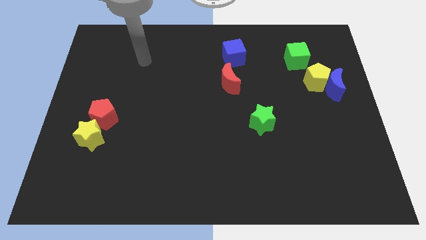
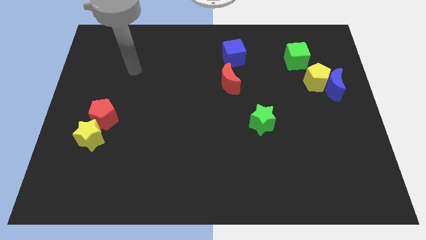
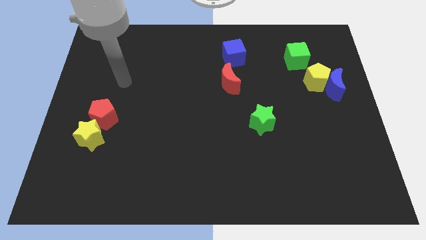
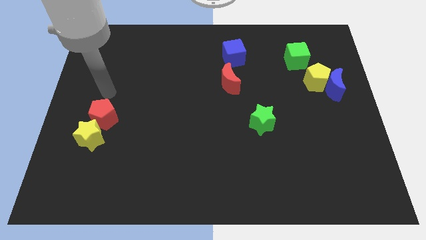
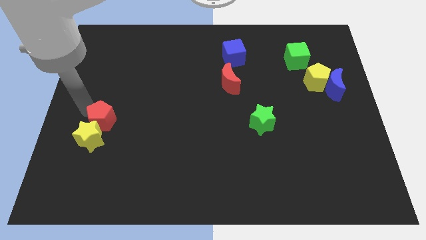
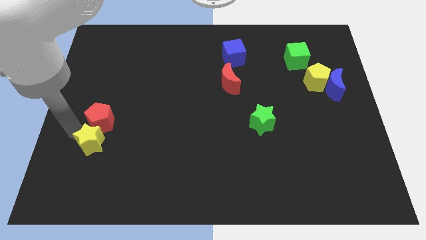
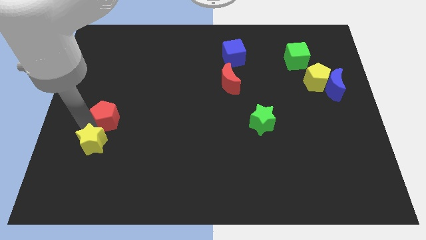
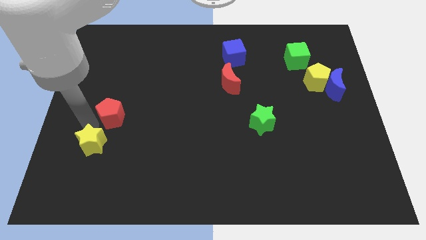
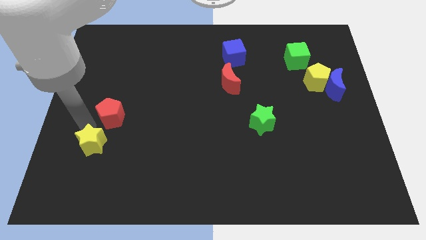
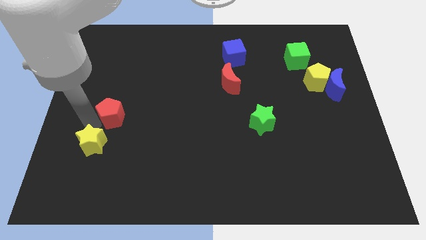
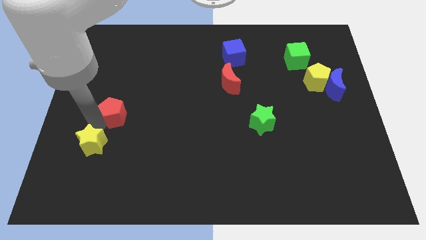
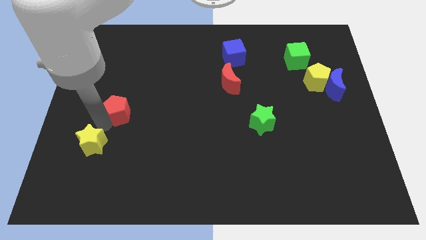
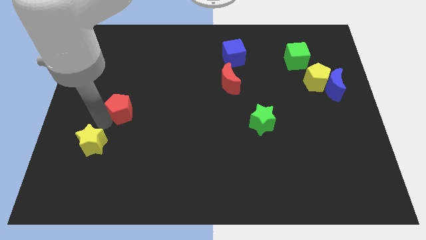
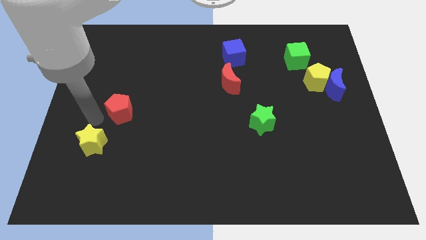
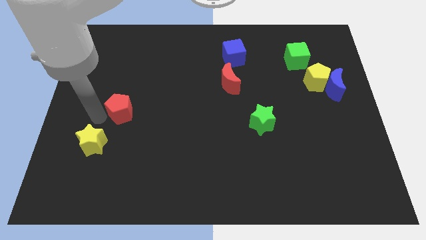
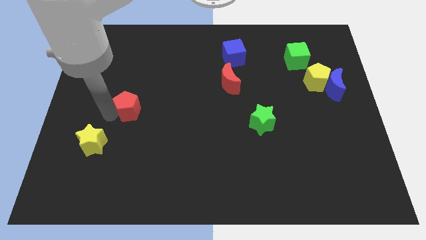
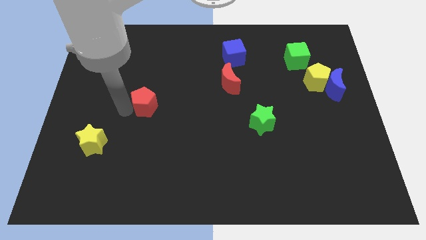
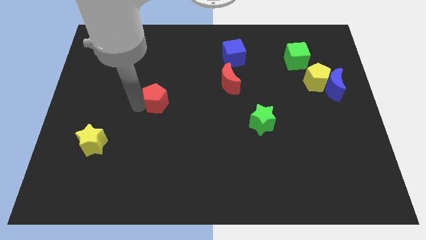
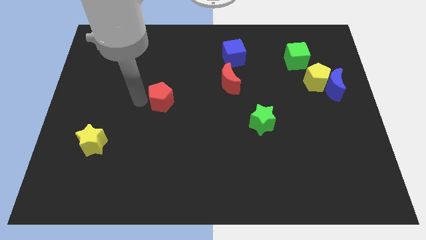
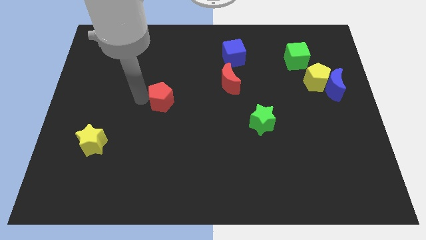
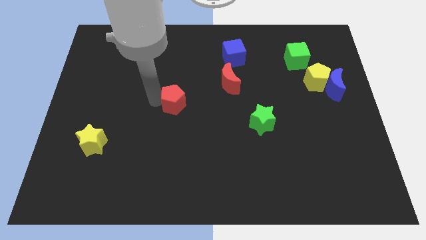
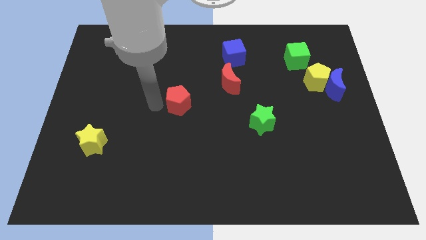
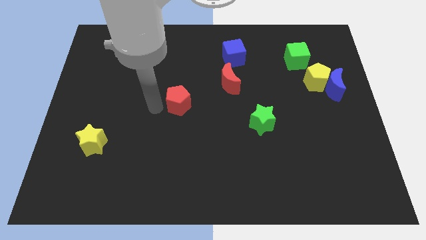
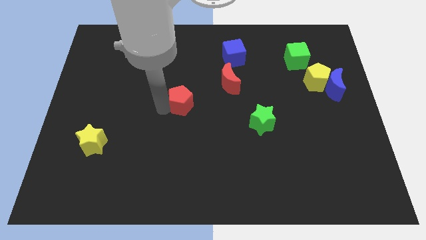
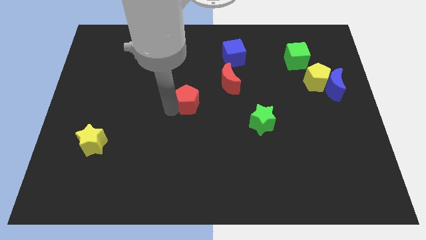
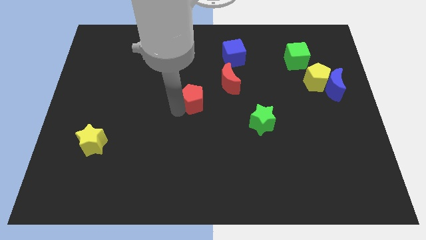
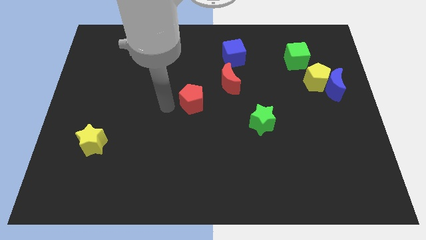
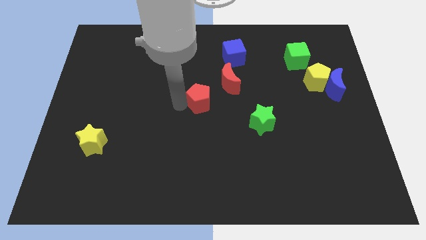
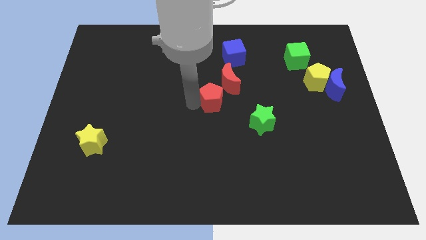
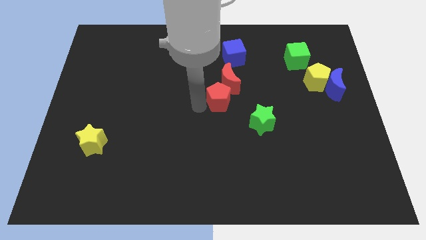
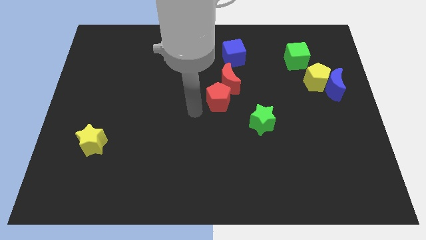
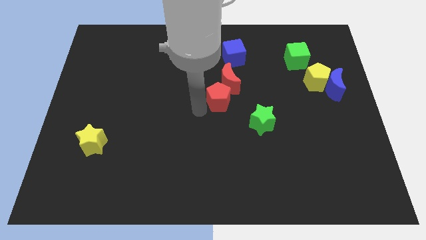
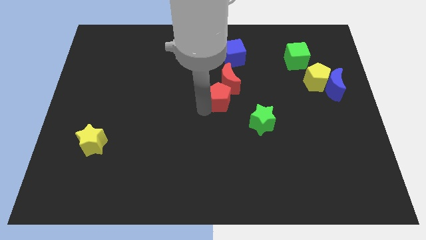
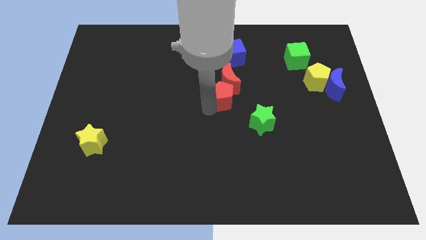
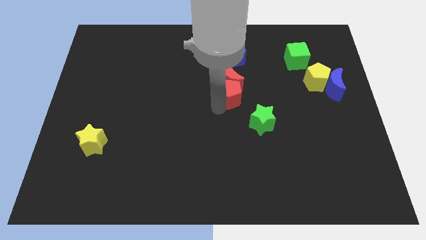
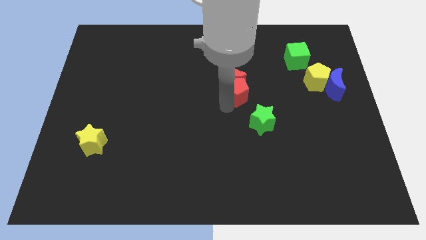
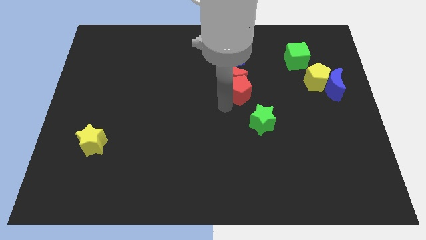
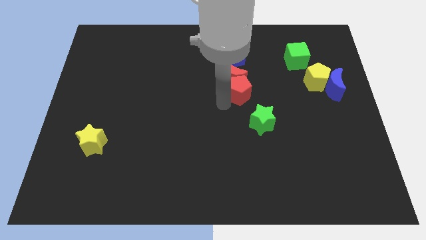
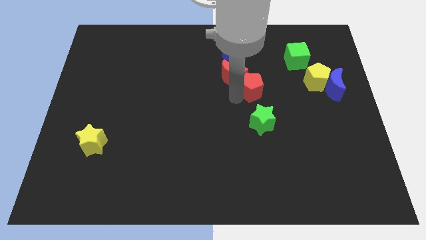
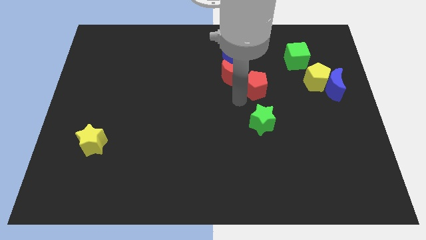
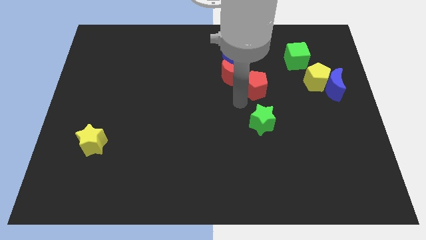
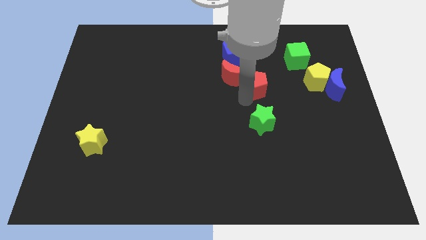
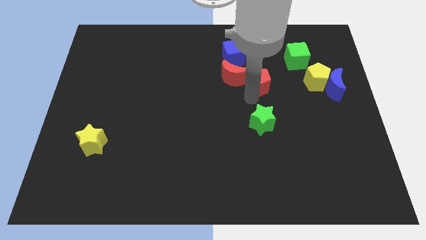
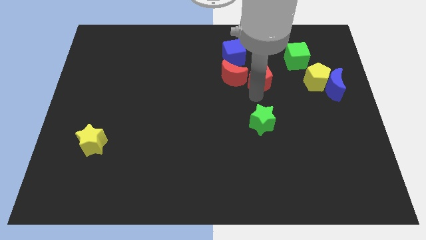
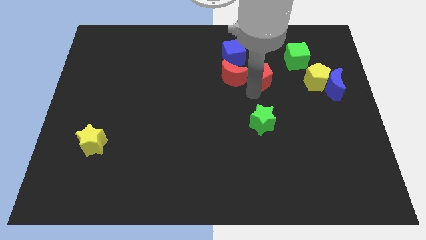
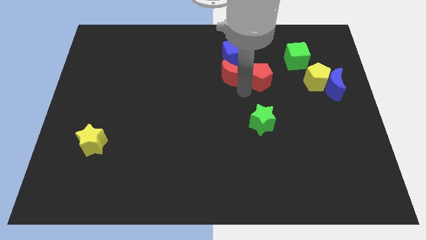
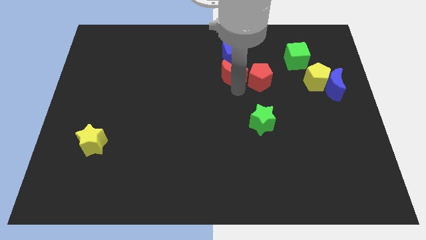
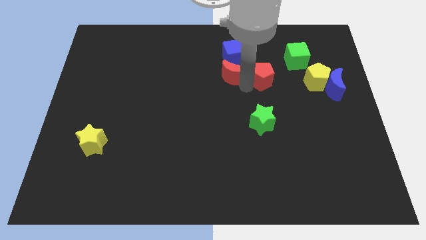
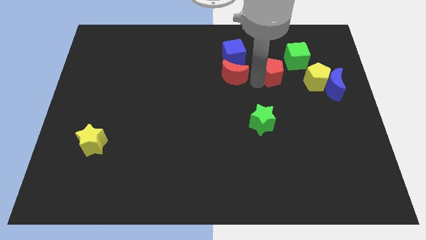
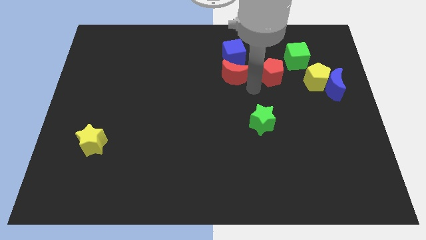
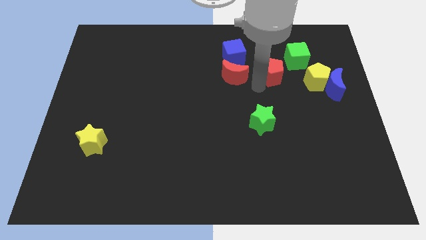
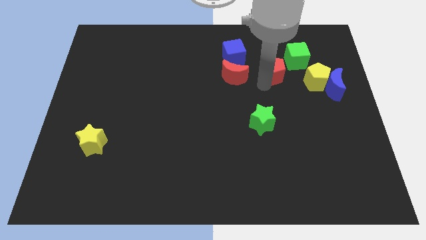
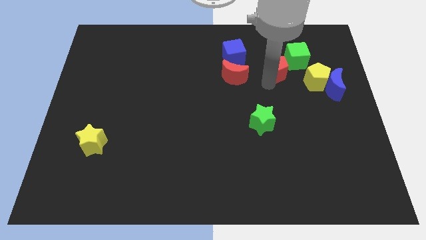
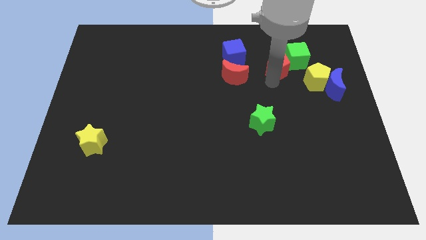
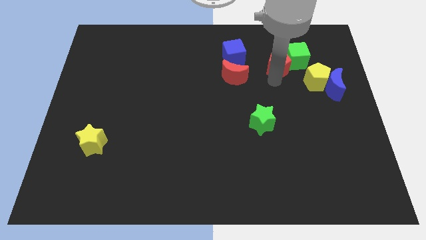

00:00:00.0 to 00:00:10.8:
move the red pentagon close to the green cube

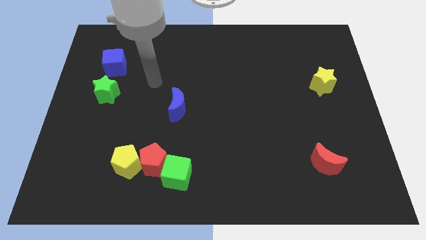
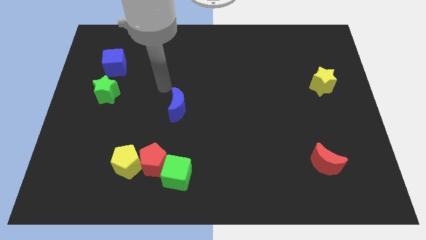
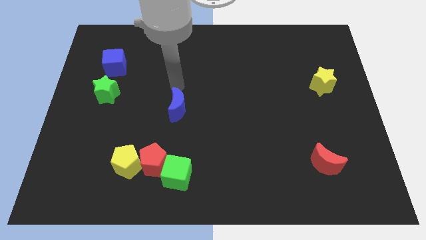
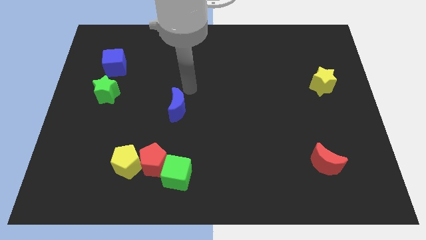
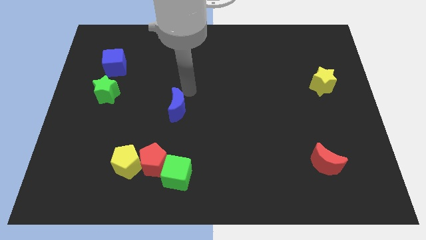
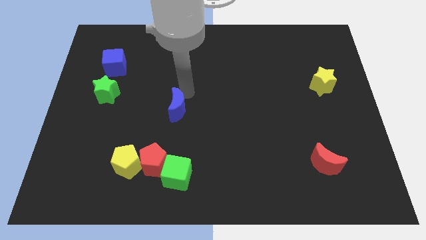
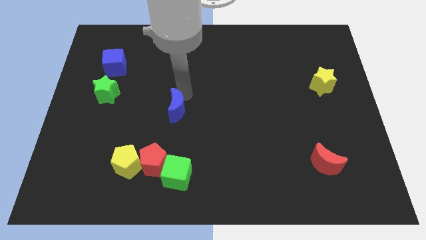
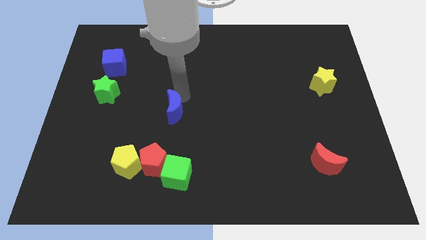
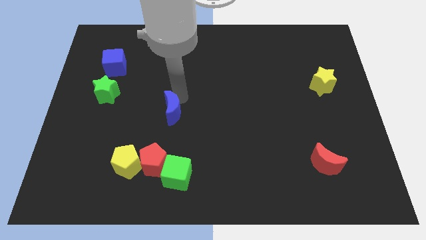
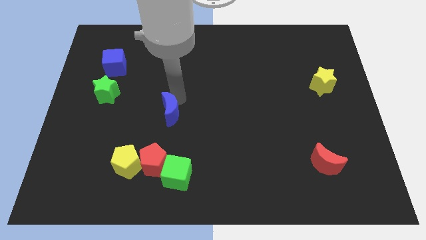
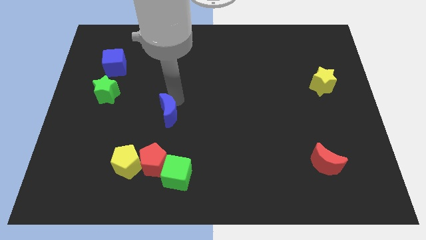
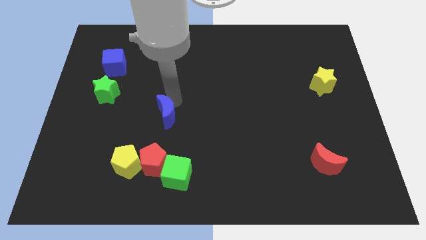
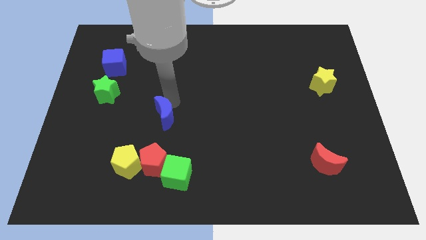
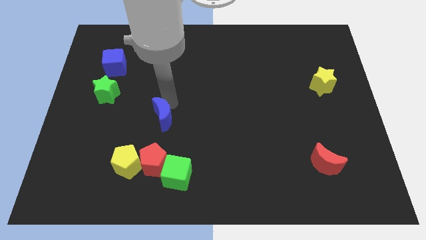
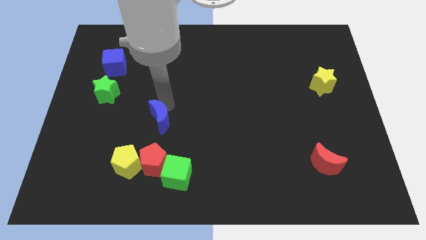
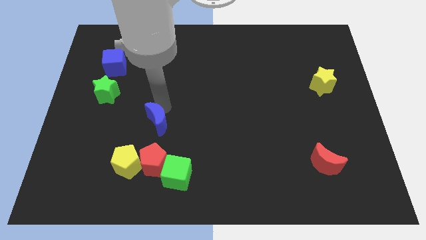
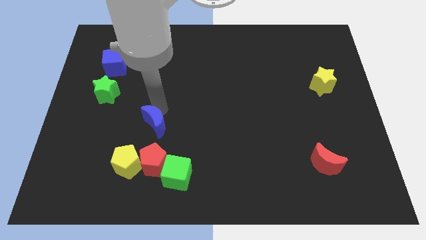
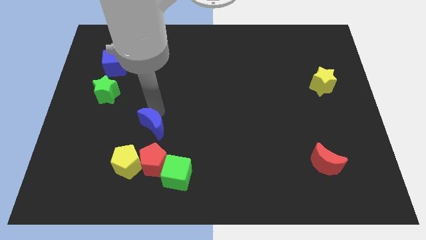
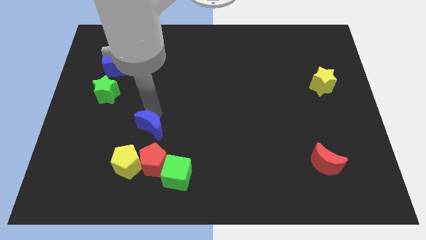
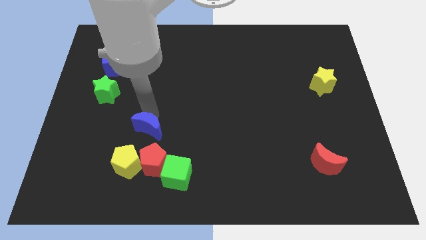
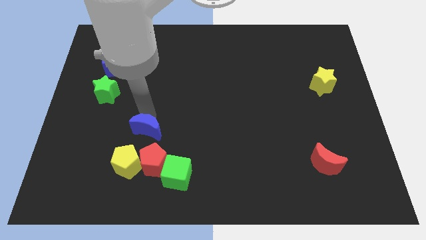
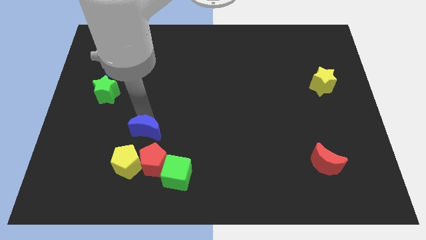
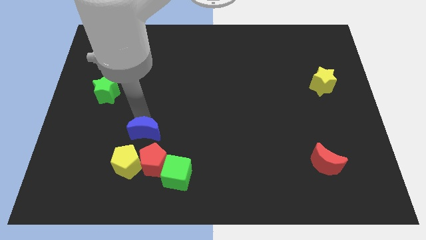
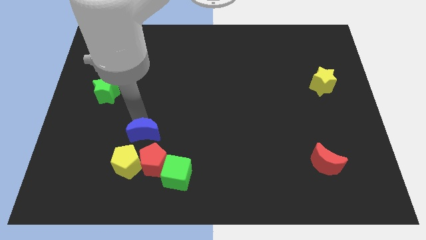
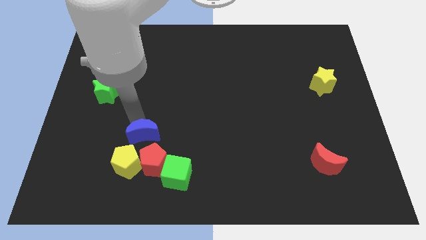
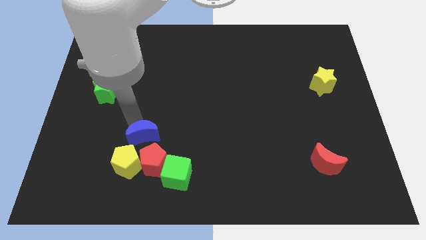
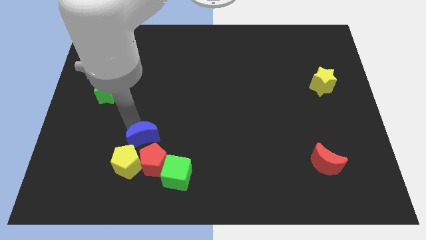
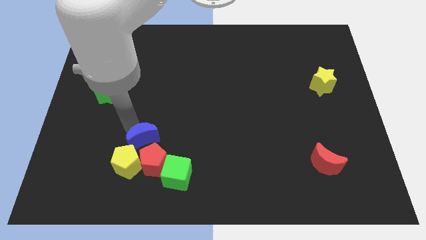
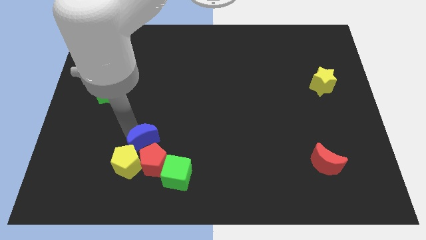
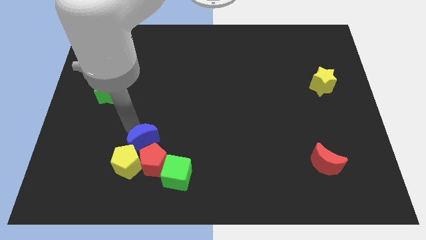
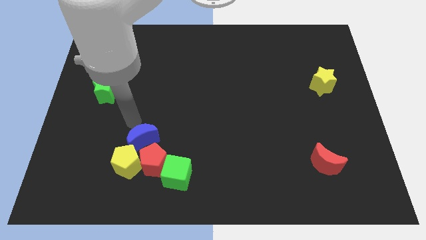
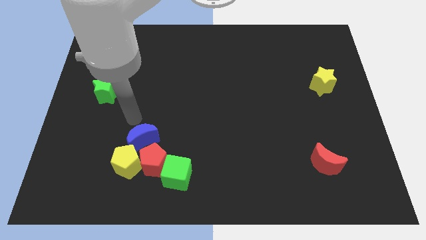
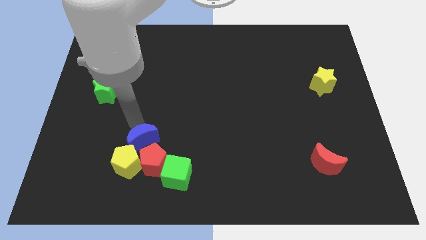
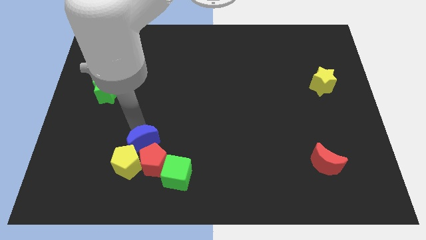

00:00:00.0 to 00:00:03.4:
move the blue moon towards the red pentagon
